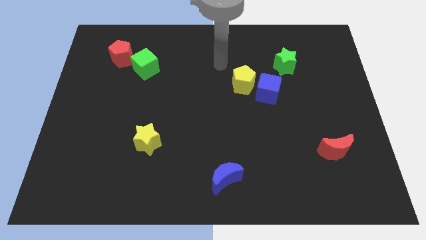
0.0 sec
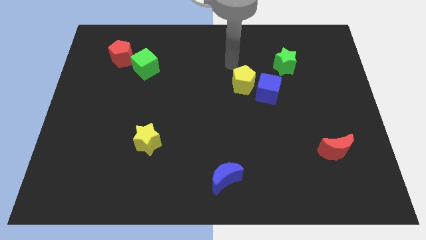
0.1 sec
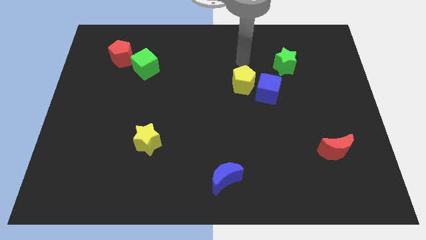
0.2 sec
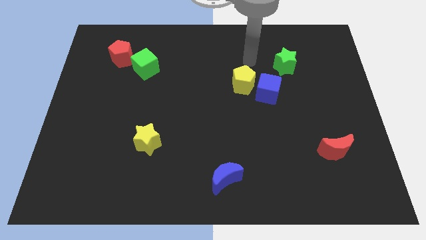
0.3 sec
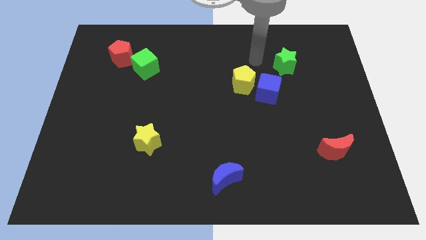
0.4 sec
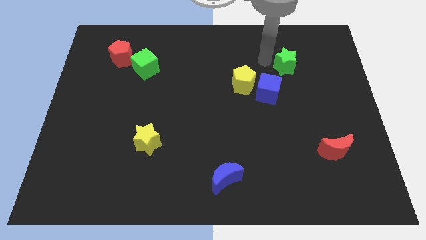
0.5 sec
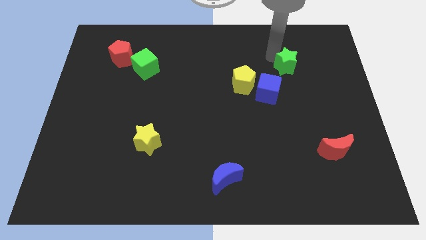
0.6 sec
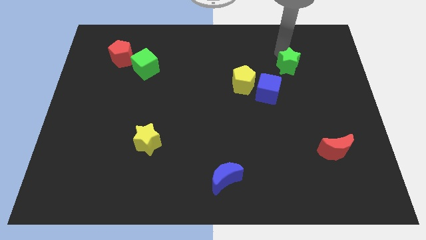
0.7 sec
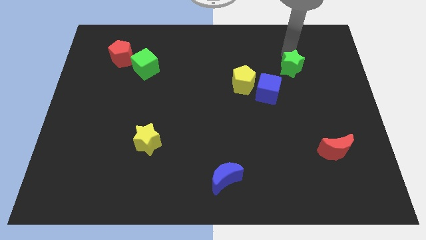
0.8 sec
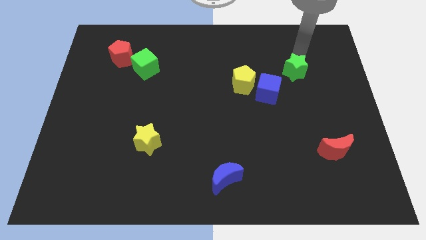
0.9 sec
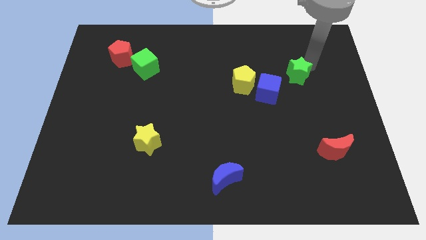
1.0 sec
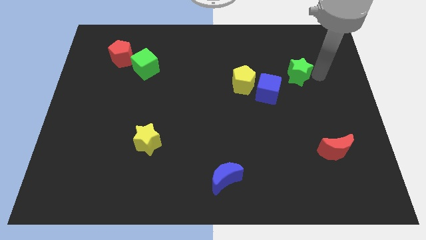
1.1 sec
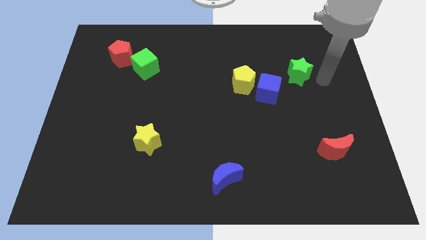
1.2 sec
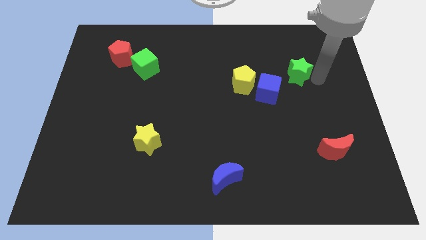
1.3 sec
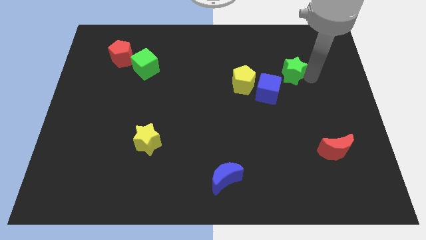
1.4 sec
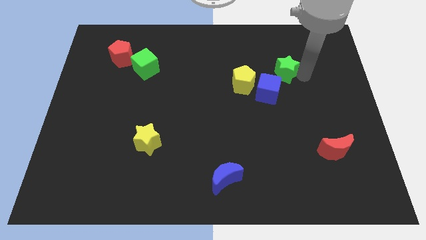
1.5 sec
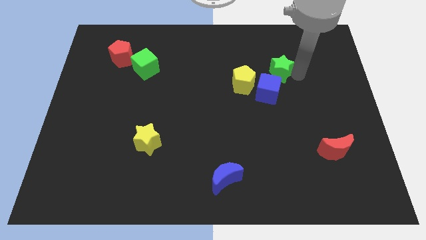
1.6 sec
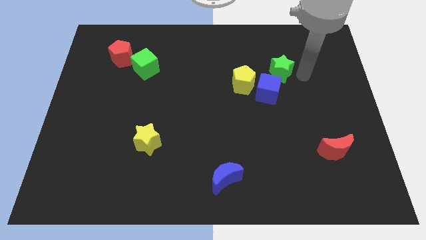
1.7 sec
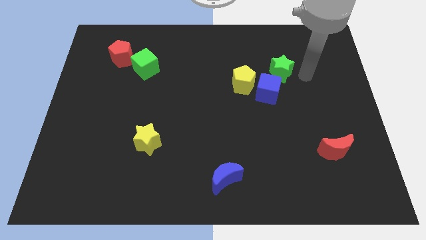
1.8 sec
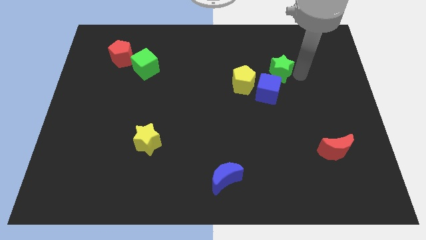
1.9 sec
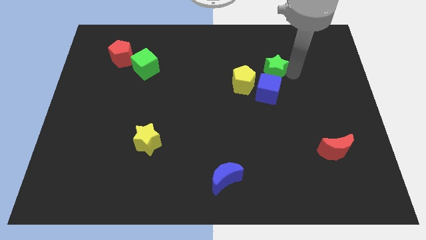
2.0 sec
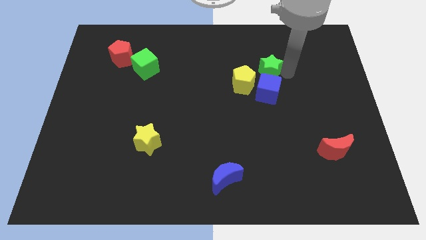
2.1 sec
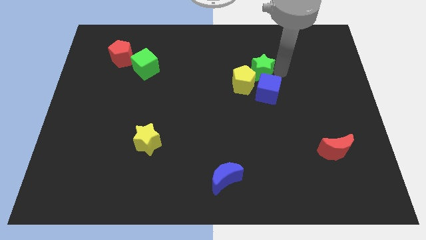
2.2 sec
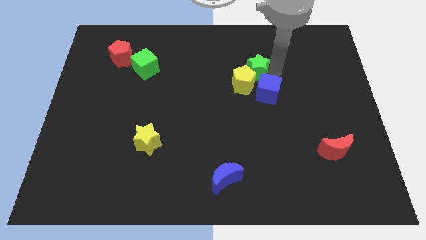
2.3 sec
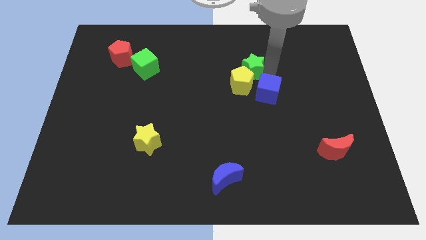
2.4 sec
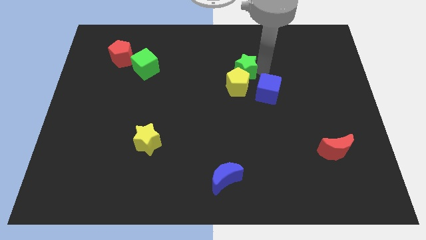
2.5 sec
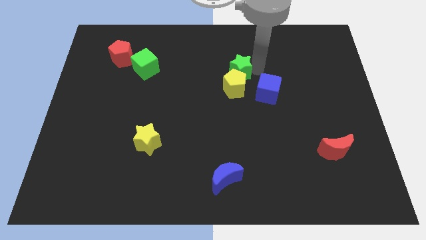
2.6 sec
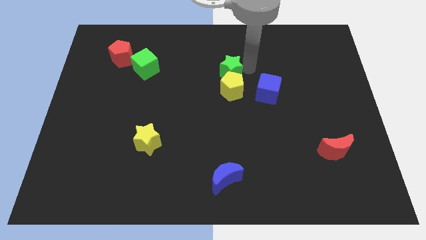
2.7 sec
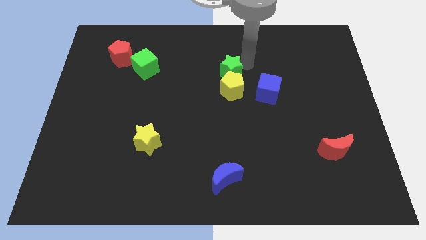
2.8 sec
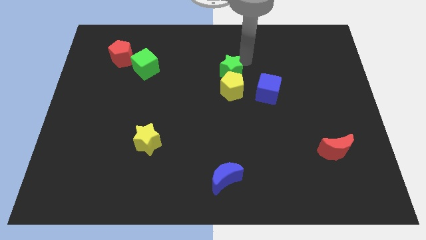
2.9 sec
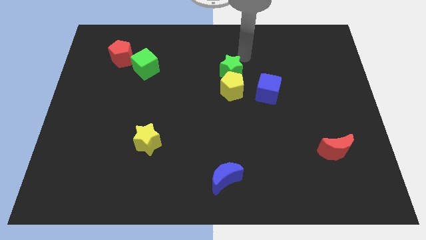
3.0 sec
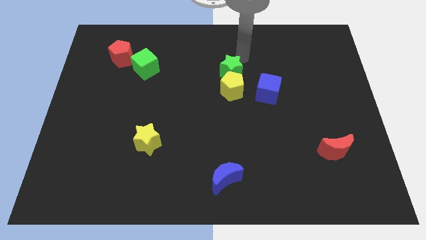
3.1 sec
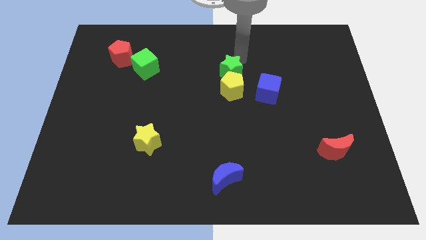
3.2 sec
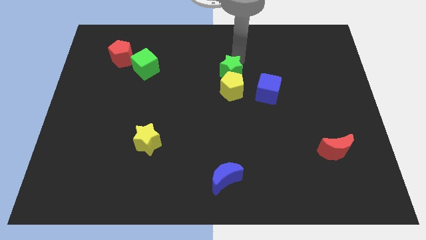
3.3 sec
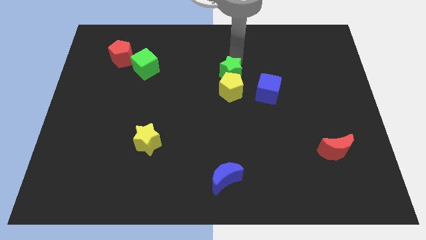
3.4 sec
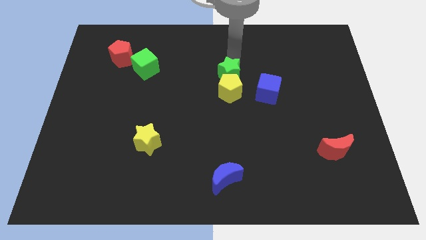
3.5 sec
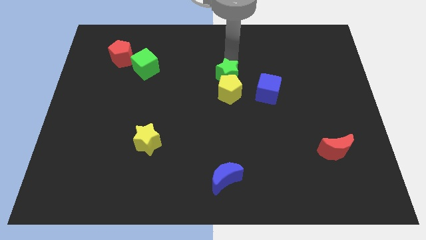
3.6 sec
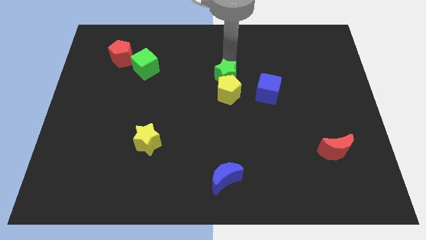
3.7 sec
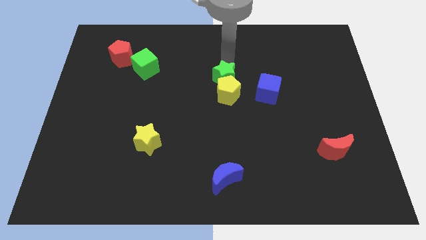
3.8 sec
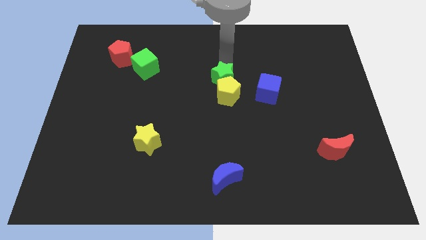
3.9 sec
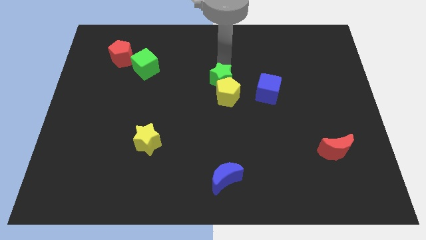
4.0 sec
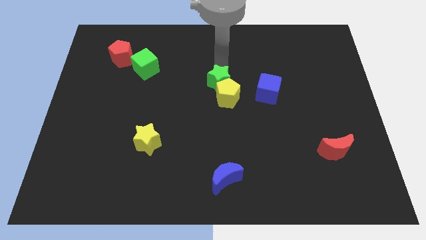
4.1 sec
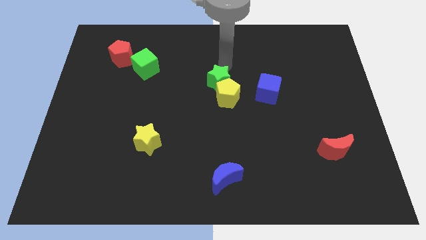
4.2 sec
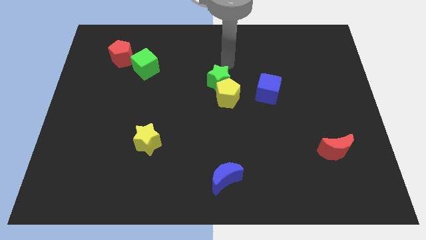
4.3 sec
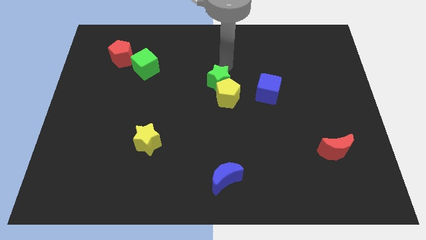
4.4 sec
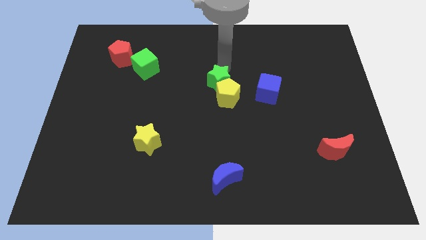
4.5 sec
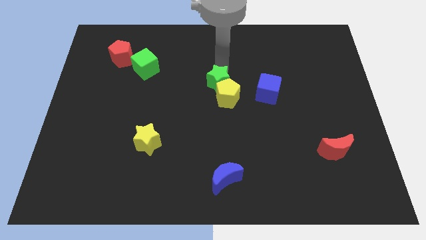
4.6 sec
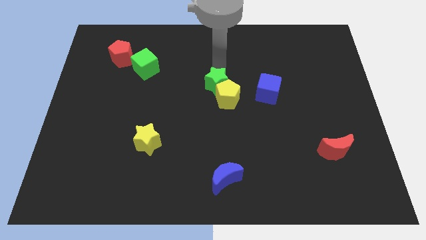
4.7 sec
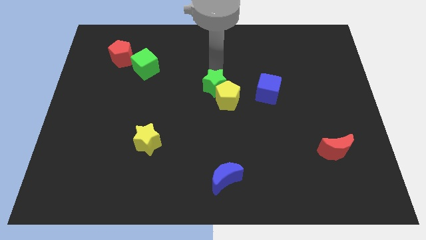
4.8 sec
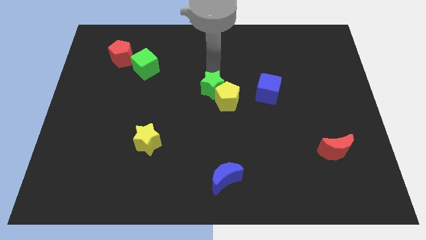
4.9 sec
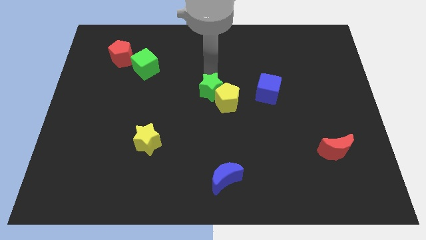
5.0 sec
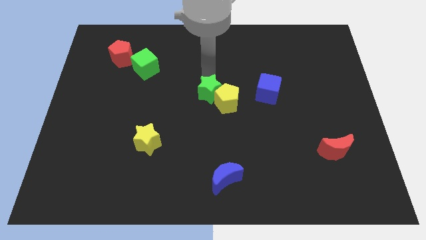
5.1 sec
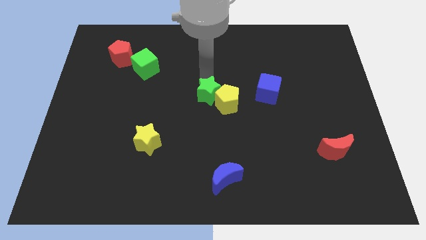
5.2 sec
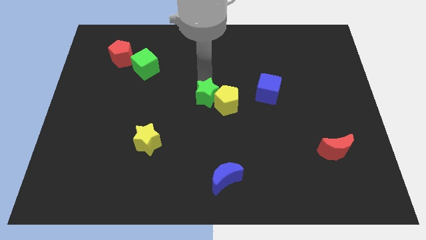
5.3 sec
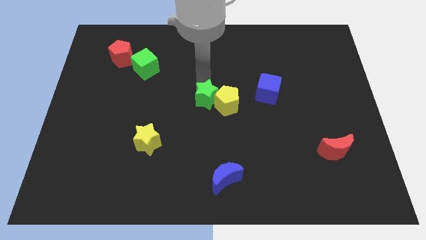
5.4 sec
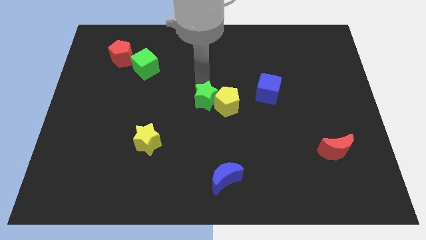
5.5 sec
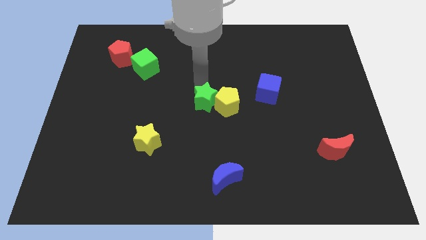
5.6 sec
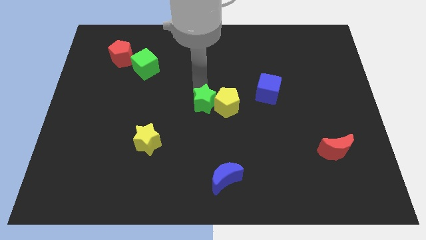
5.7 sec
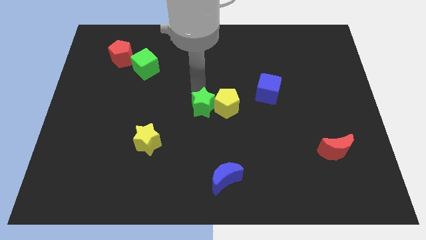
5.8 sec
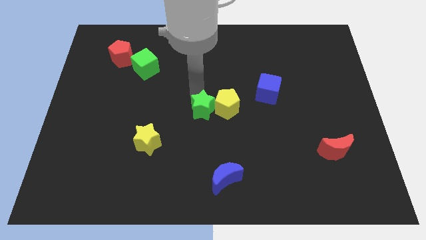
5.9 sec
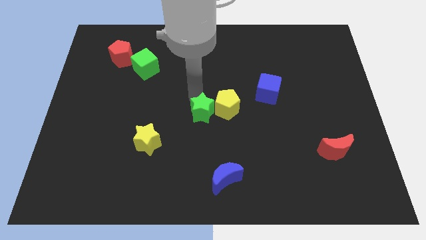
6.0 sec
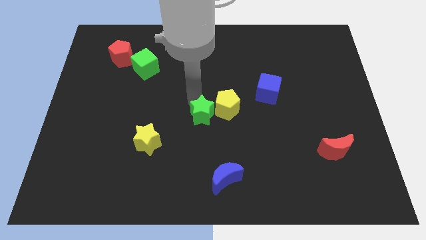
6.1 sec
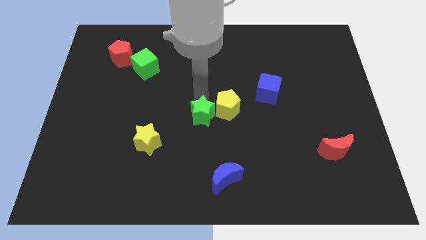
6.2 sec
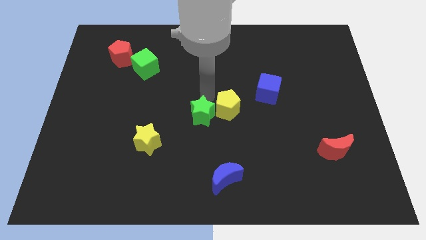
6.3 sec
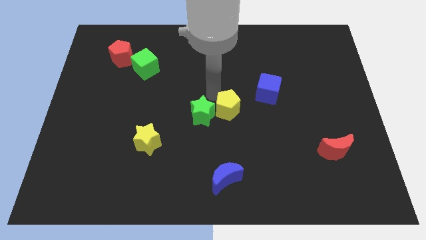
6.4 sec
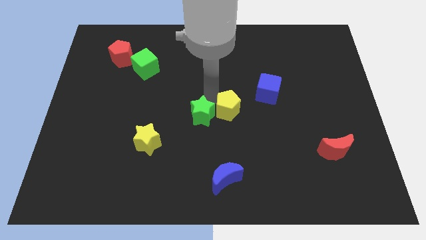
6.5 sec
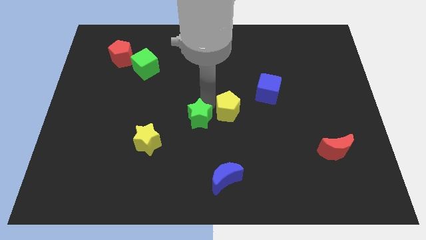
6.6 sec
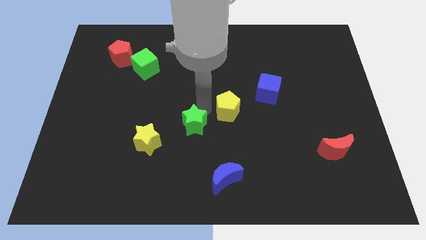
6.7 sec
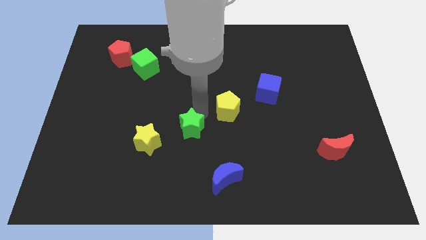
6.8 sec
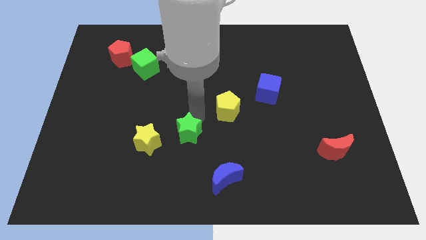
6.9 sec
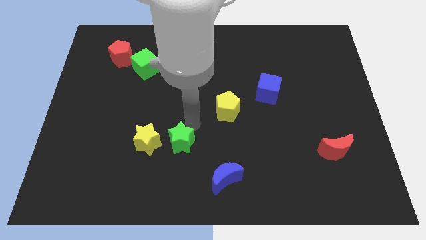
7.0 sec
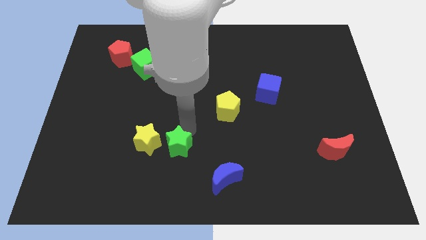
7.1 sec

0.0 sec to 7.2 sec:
move the green star to the bottom right side of the yellow star
